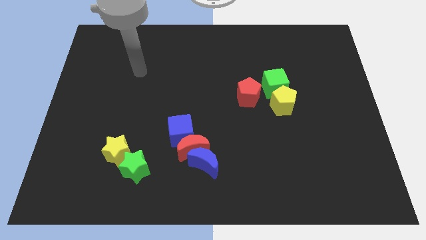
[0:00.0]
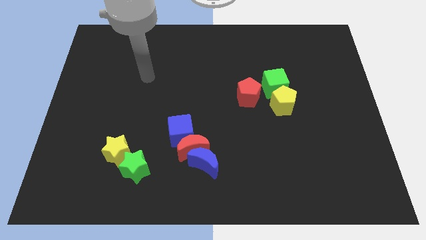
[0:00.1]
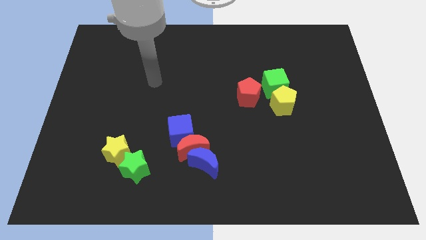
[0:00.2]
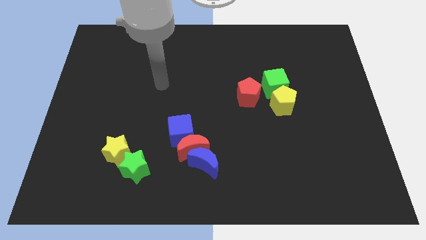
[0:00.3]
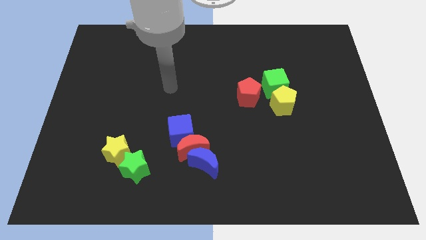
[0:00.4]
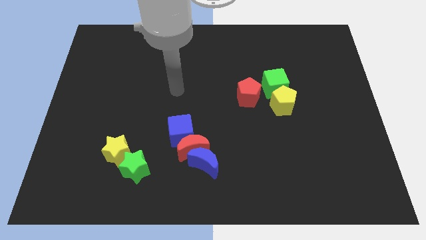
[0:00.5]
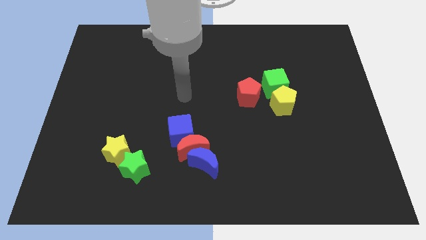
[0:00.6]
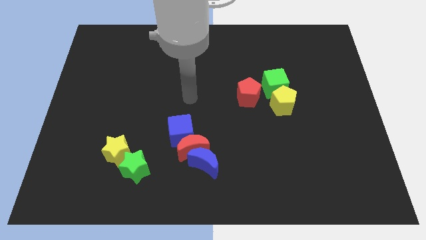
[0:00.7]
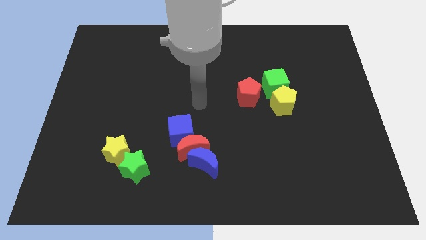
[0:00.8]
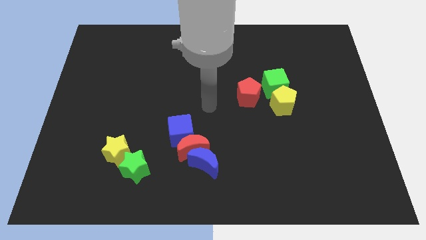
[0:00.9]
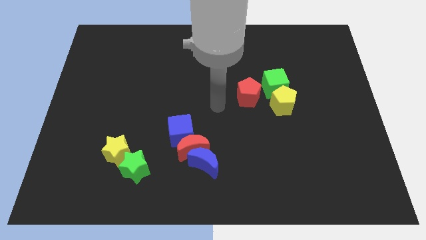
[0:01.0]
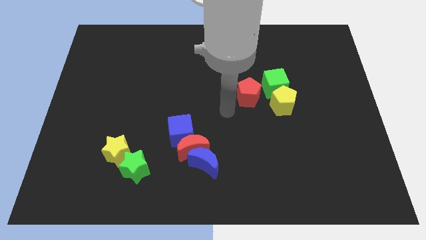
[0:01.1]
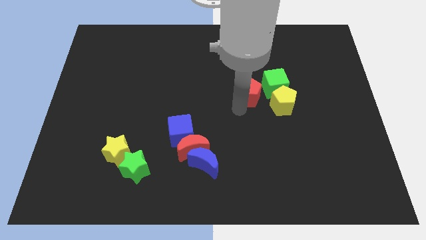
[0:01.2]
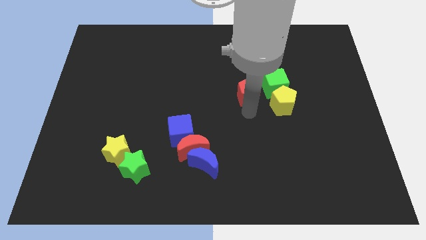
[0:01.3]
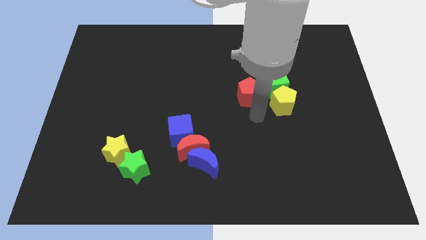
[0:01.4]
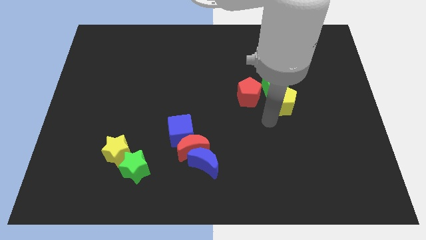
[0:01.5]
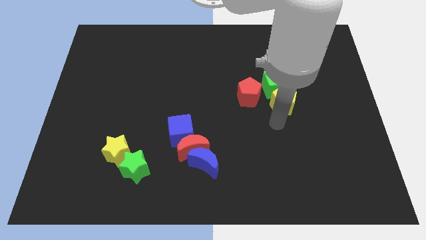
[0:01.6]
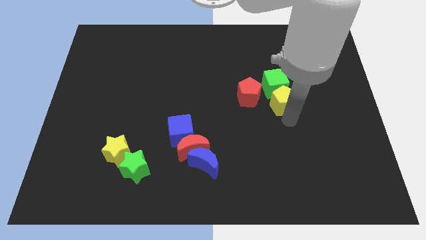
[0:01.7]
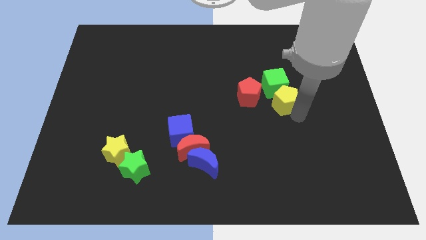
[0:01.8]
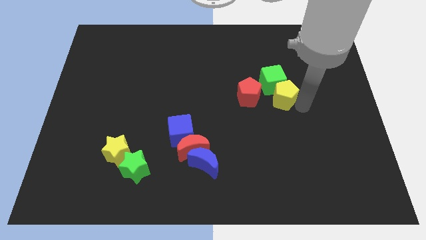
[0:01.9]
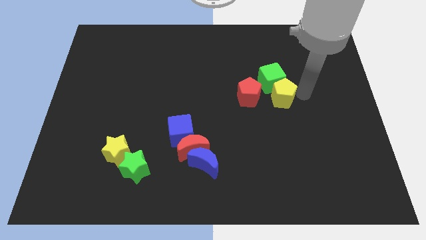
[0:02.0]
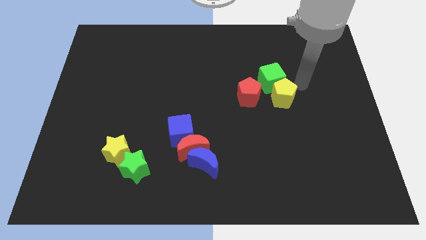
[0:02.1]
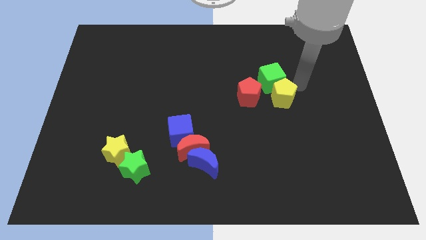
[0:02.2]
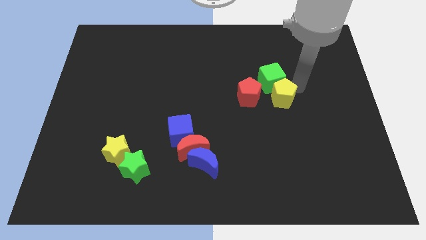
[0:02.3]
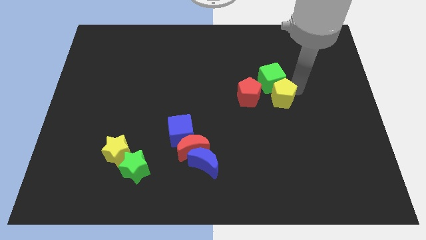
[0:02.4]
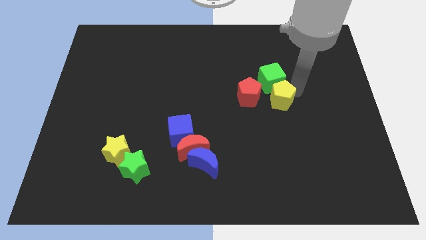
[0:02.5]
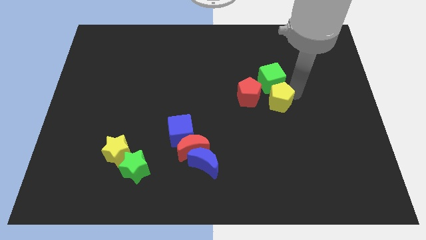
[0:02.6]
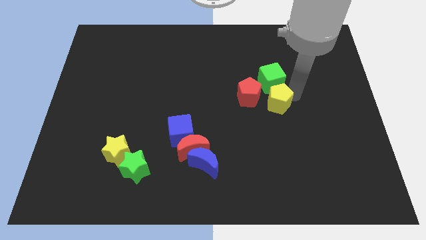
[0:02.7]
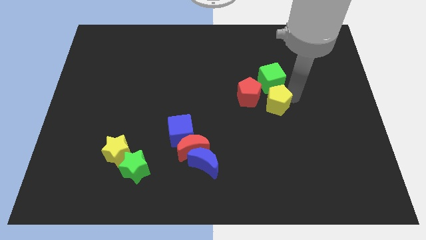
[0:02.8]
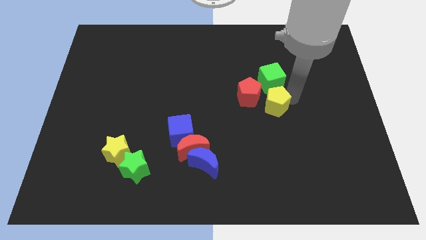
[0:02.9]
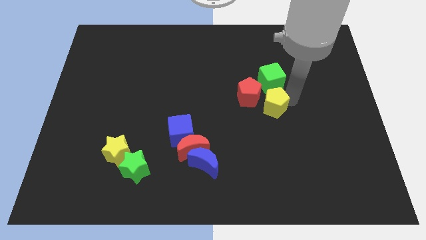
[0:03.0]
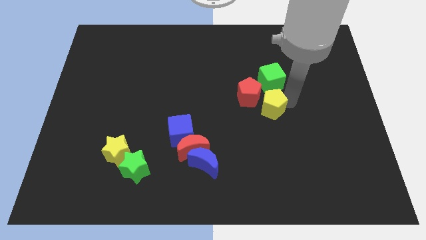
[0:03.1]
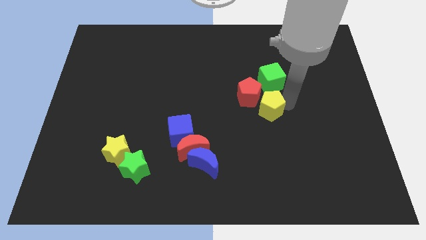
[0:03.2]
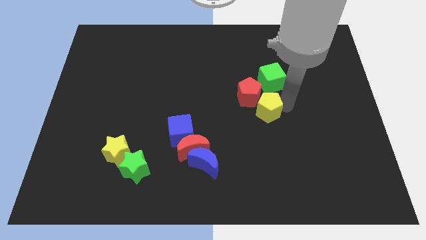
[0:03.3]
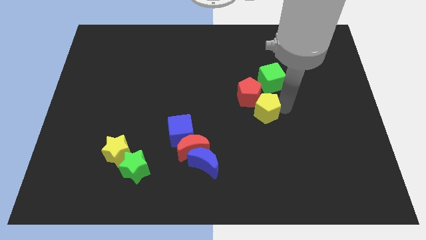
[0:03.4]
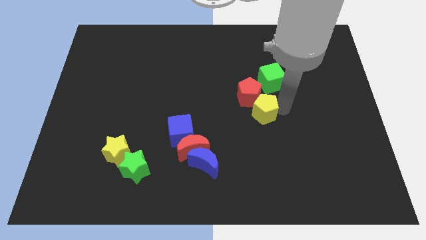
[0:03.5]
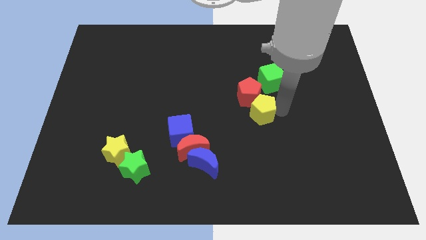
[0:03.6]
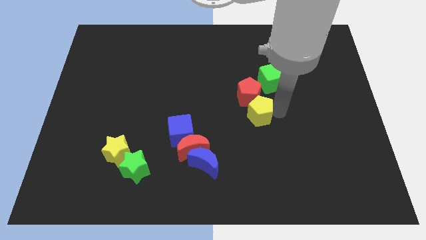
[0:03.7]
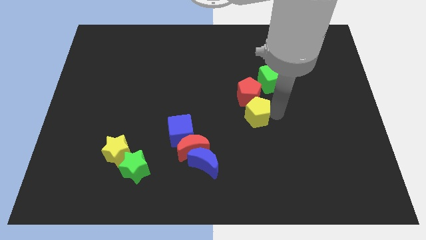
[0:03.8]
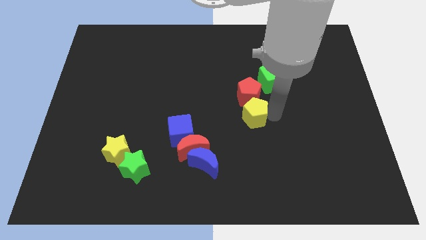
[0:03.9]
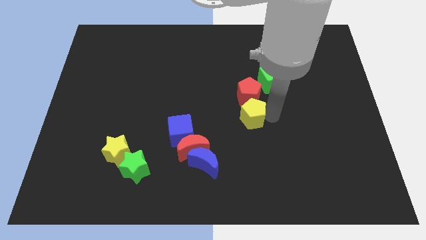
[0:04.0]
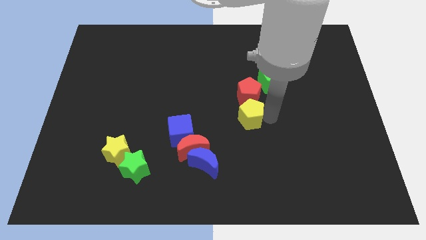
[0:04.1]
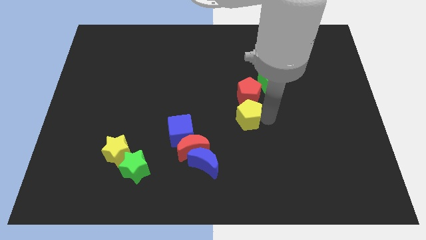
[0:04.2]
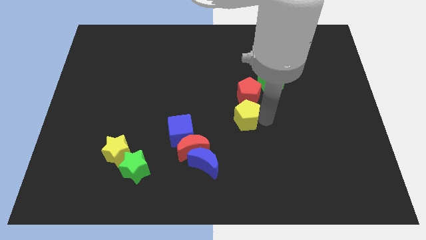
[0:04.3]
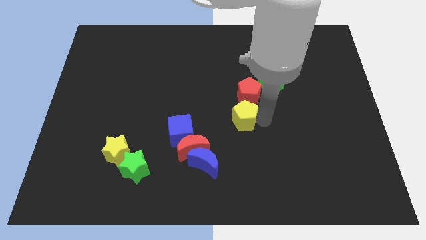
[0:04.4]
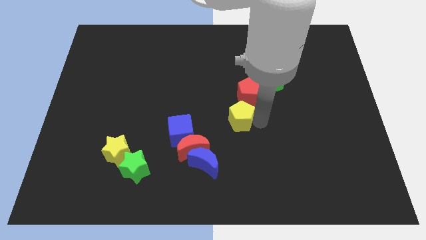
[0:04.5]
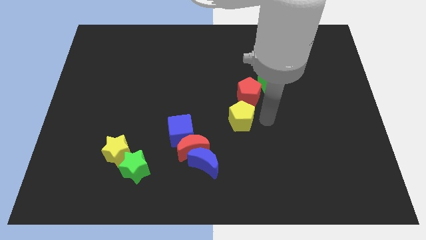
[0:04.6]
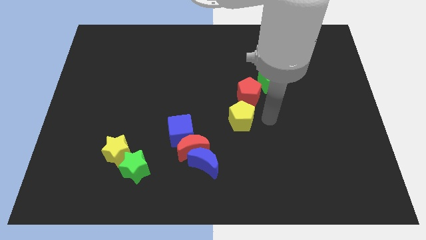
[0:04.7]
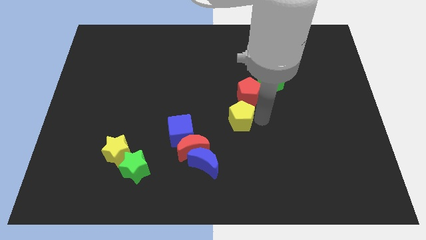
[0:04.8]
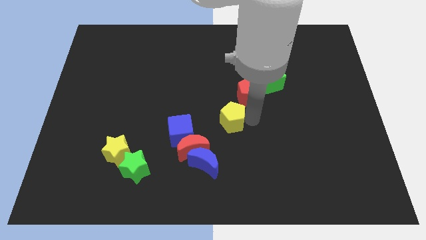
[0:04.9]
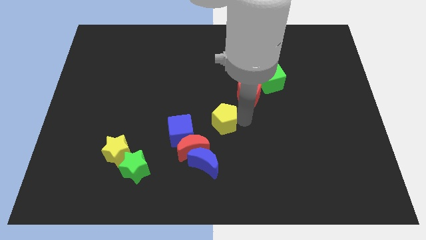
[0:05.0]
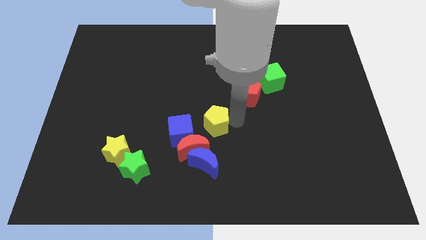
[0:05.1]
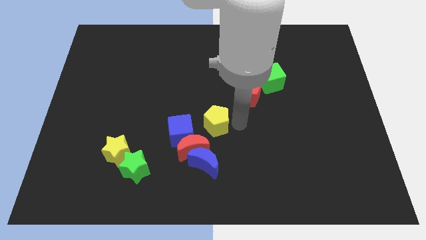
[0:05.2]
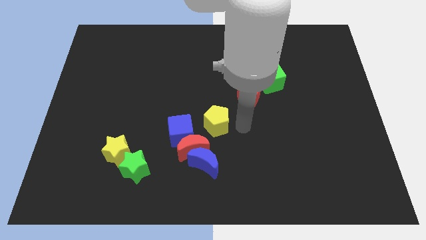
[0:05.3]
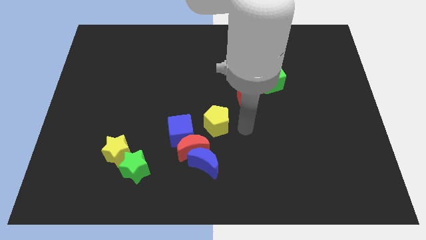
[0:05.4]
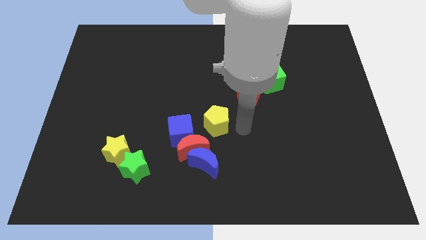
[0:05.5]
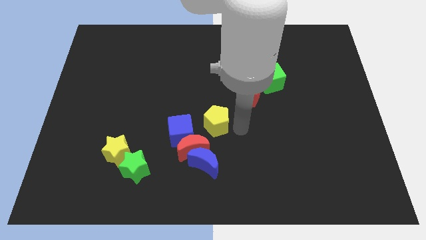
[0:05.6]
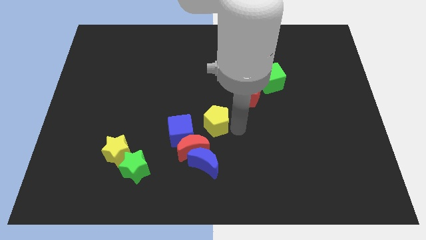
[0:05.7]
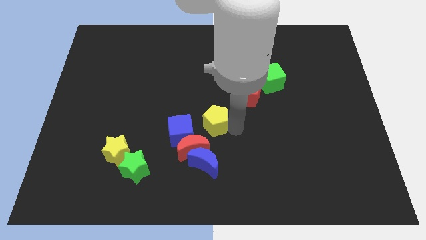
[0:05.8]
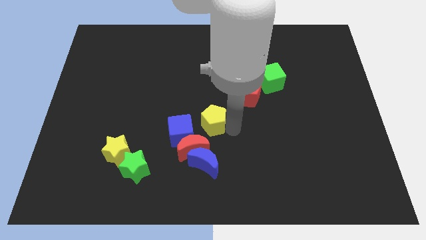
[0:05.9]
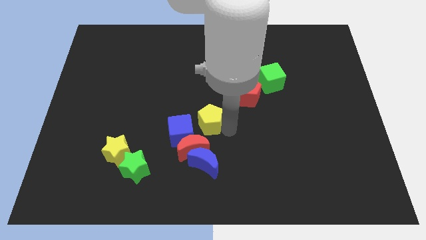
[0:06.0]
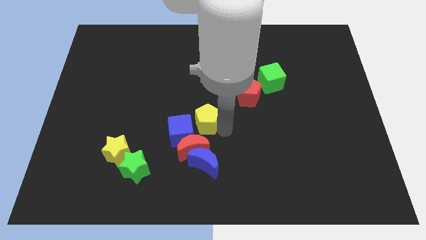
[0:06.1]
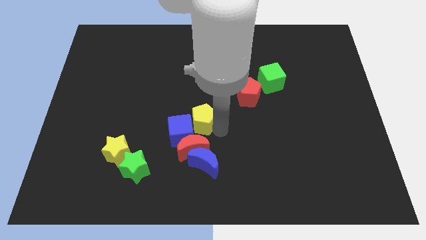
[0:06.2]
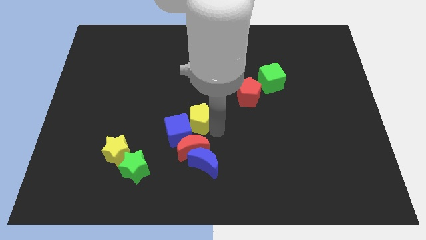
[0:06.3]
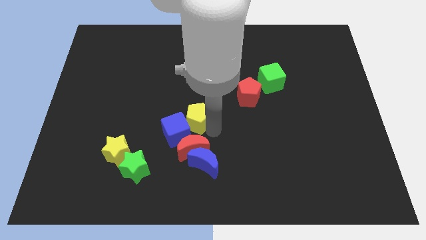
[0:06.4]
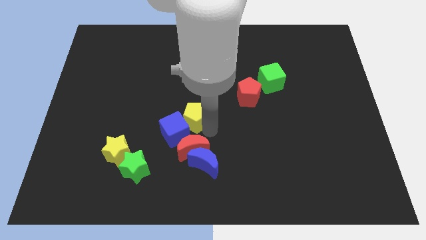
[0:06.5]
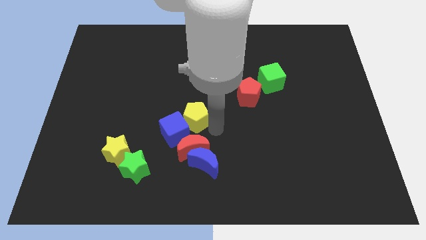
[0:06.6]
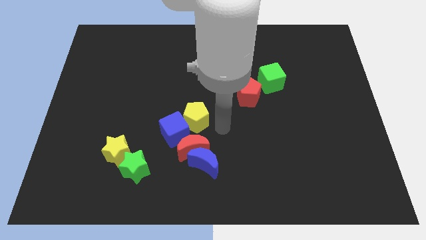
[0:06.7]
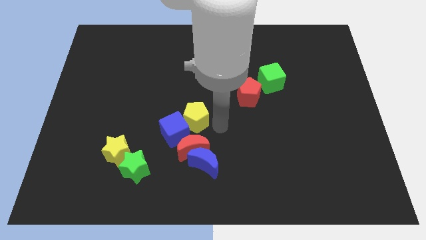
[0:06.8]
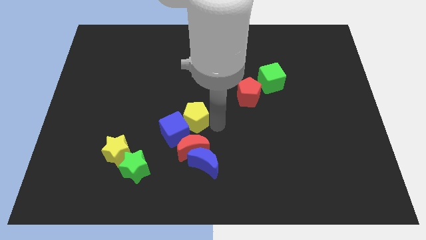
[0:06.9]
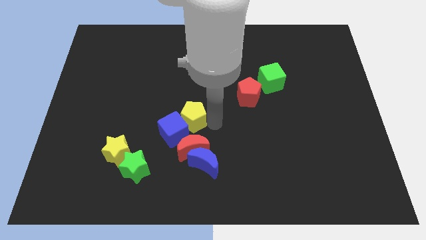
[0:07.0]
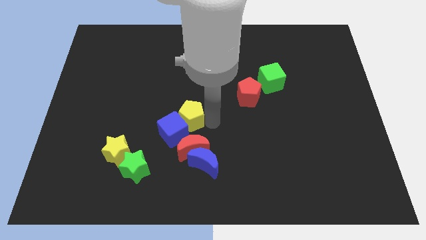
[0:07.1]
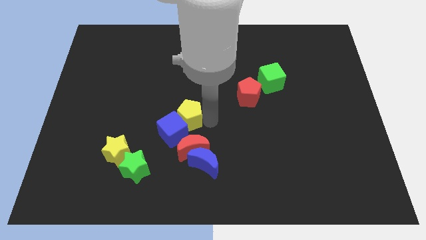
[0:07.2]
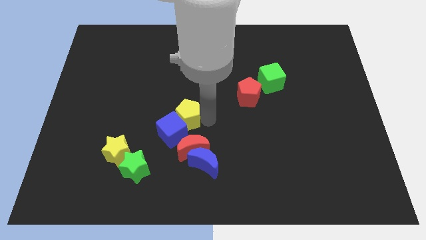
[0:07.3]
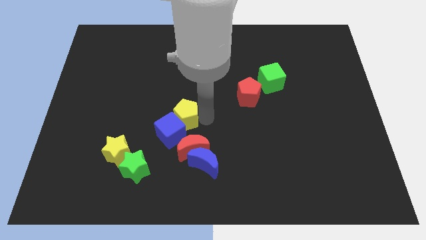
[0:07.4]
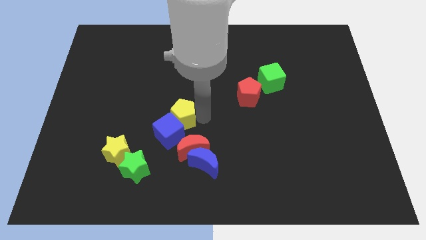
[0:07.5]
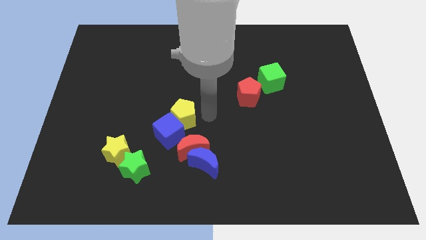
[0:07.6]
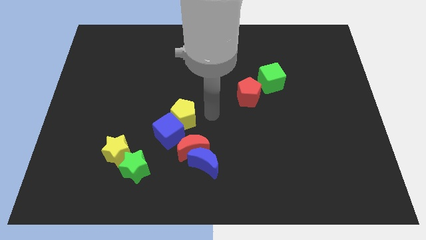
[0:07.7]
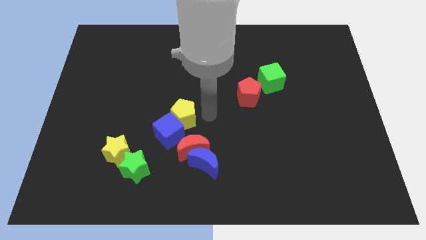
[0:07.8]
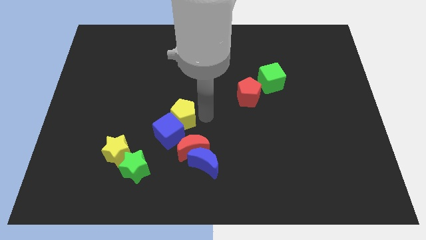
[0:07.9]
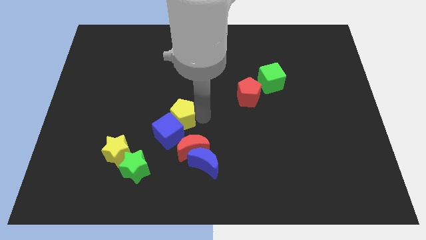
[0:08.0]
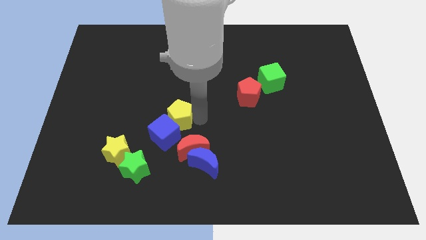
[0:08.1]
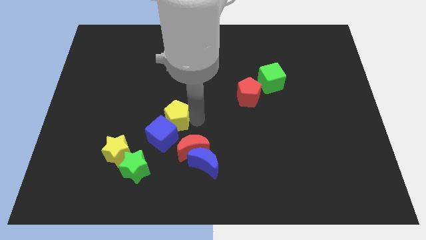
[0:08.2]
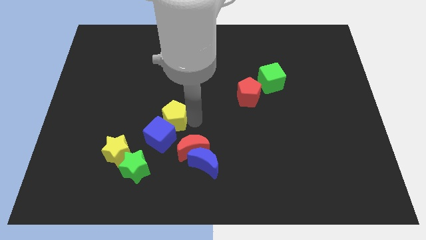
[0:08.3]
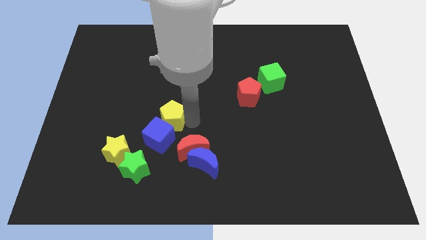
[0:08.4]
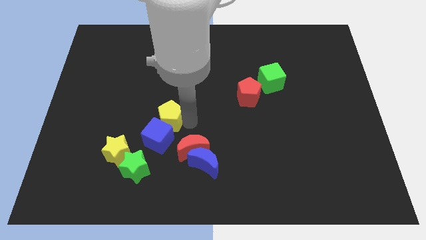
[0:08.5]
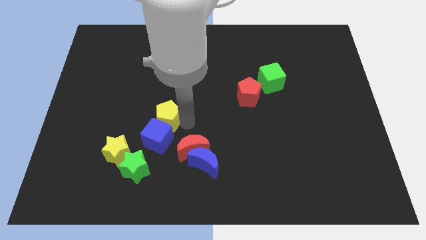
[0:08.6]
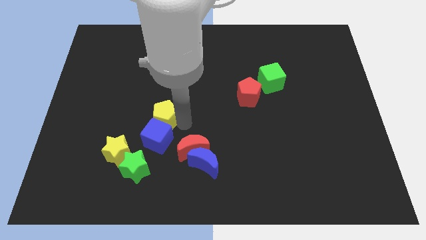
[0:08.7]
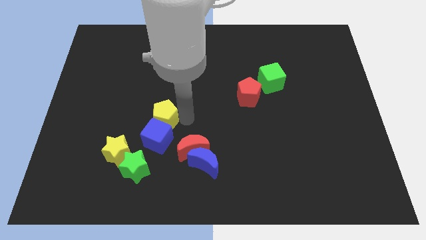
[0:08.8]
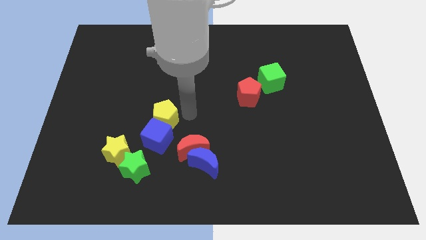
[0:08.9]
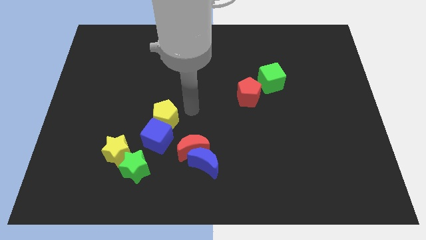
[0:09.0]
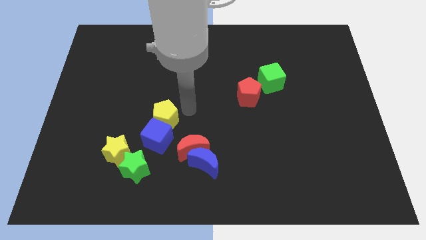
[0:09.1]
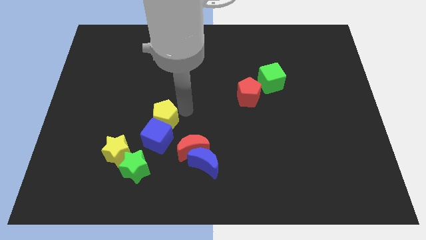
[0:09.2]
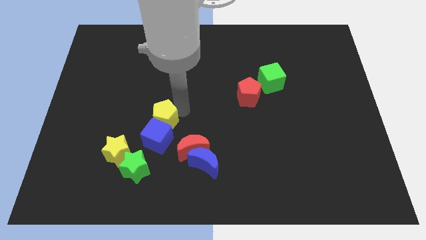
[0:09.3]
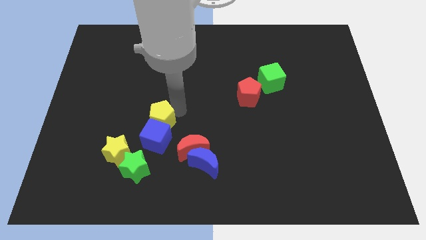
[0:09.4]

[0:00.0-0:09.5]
put the yellow pentagon to the top of the green star
